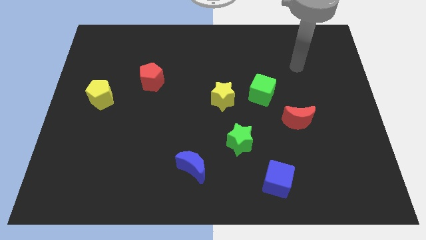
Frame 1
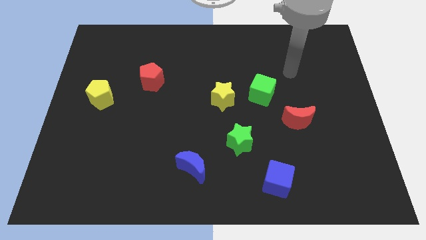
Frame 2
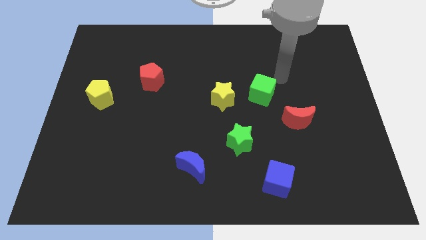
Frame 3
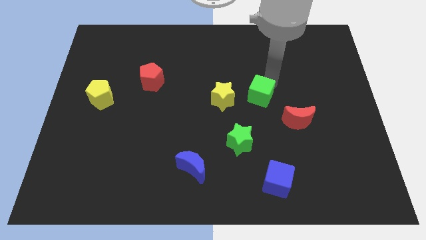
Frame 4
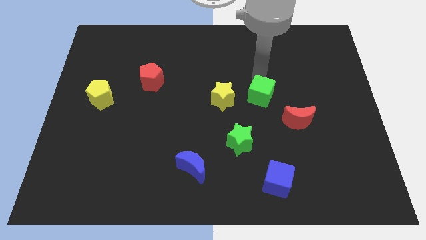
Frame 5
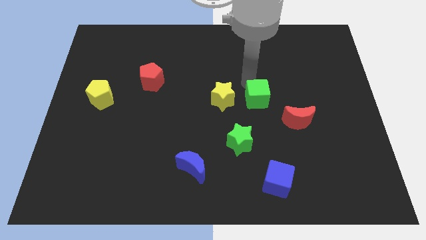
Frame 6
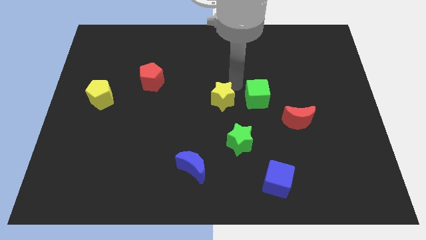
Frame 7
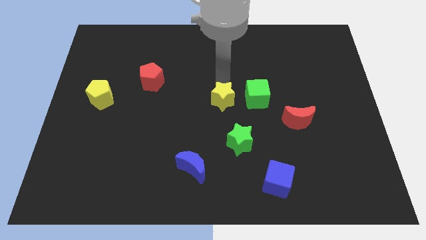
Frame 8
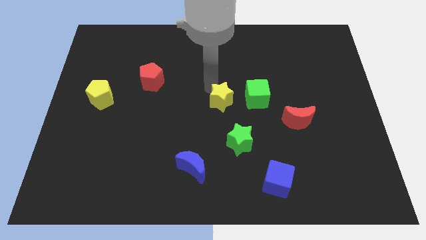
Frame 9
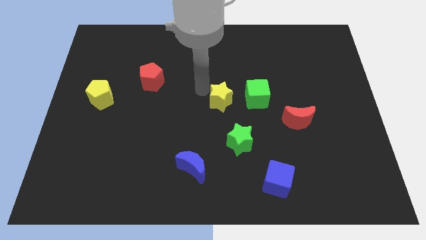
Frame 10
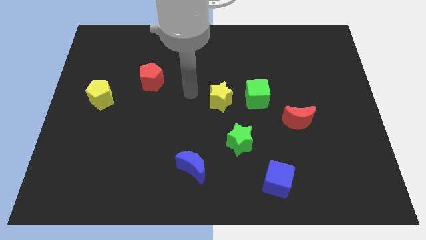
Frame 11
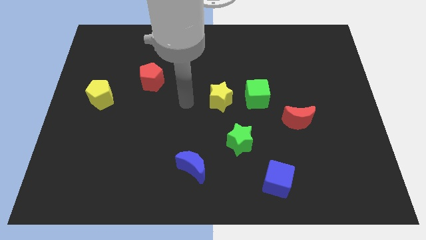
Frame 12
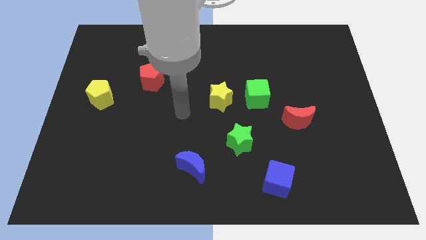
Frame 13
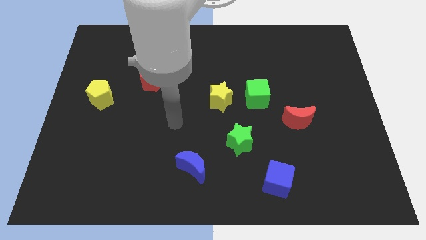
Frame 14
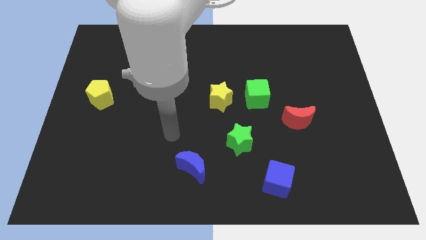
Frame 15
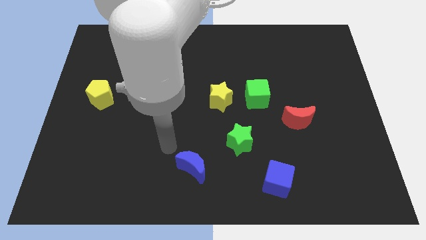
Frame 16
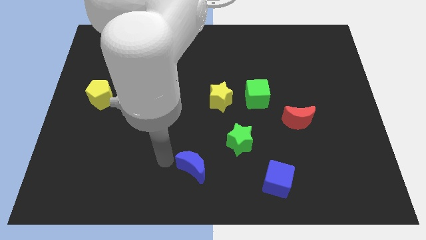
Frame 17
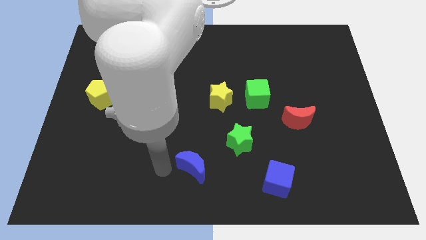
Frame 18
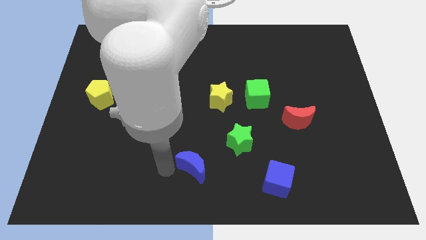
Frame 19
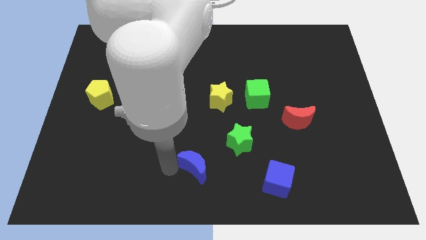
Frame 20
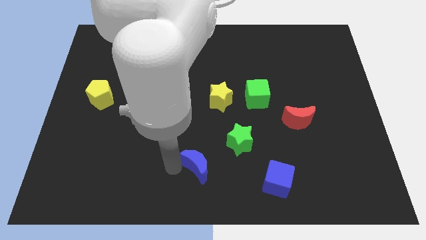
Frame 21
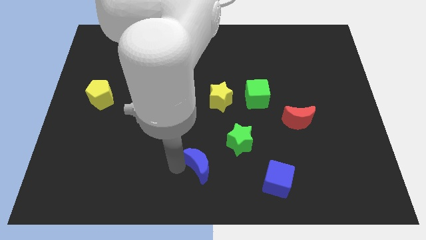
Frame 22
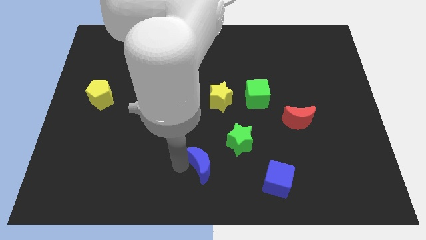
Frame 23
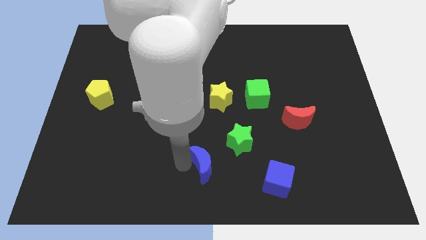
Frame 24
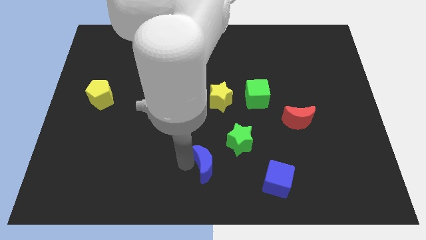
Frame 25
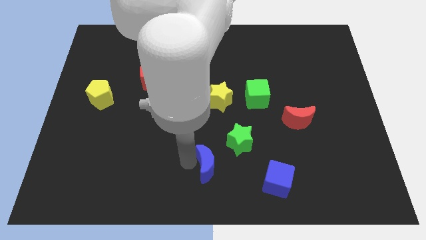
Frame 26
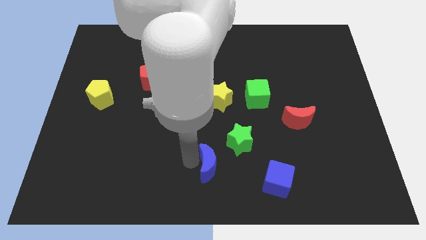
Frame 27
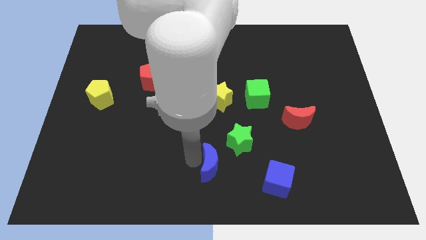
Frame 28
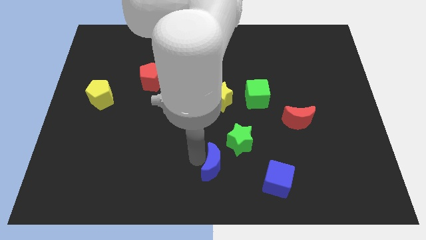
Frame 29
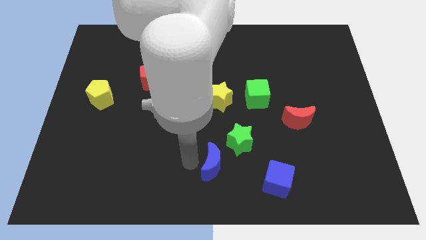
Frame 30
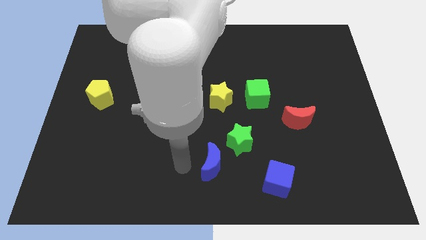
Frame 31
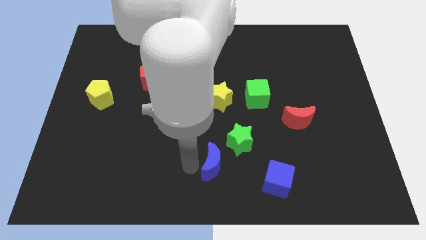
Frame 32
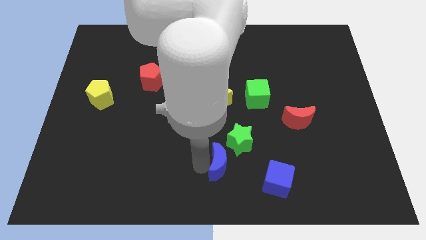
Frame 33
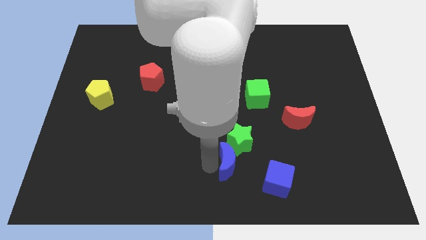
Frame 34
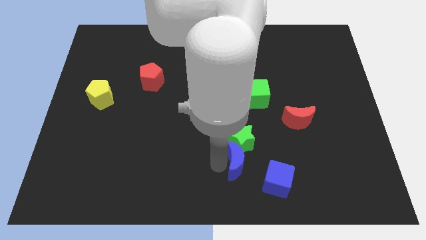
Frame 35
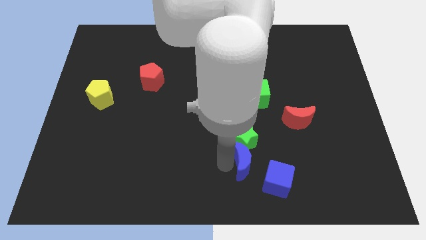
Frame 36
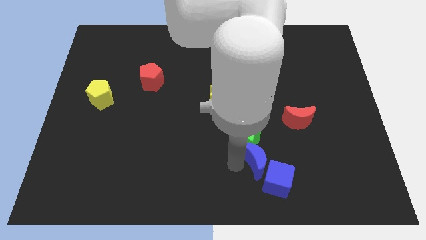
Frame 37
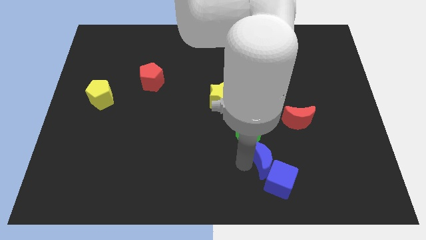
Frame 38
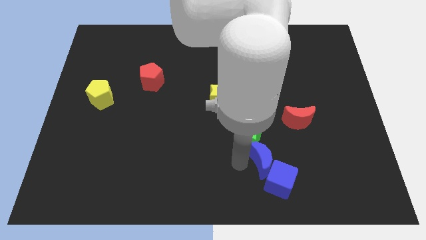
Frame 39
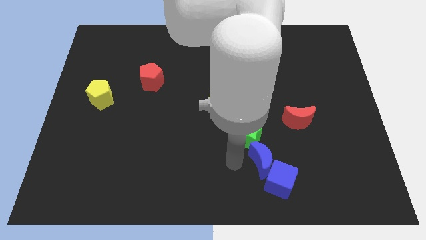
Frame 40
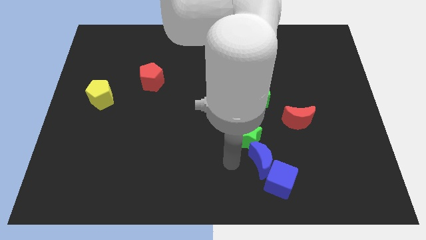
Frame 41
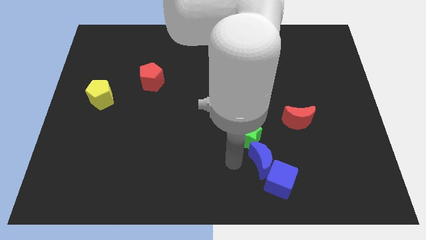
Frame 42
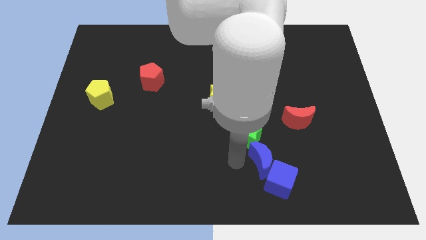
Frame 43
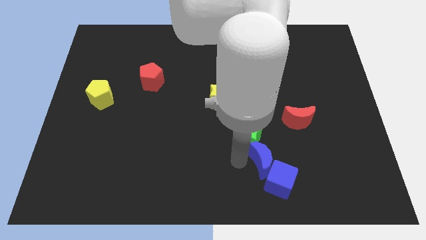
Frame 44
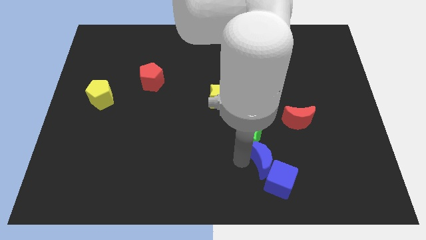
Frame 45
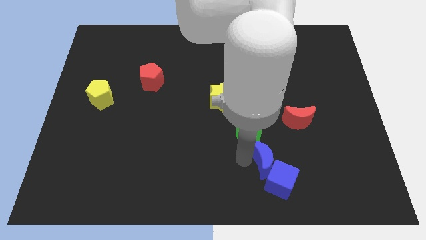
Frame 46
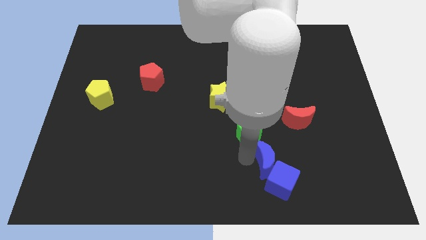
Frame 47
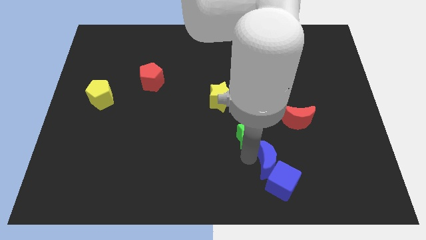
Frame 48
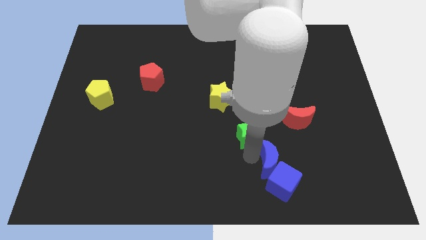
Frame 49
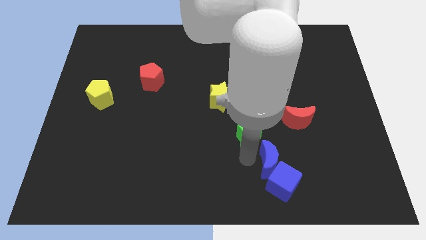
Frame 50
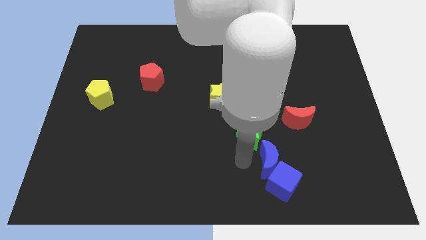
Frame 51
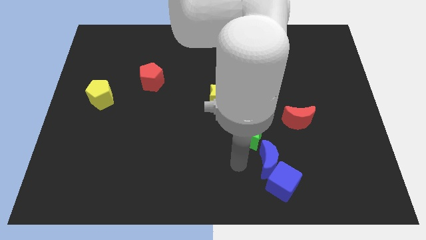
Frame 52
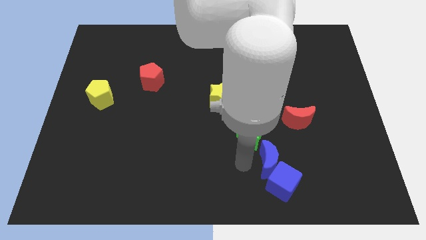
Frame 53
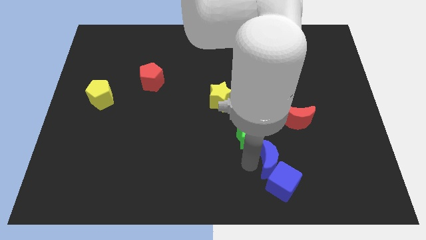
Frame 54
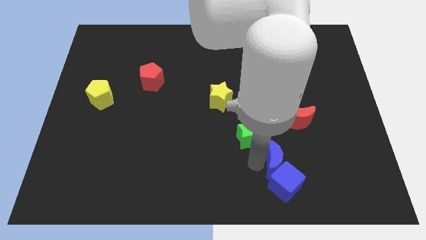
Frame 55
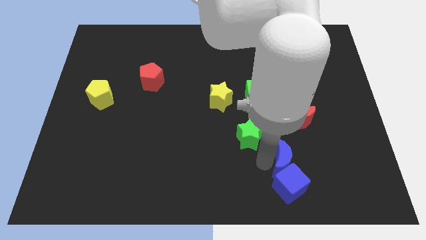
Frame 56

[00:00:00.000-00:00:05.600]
put the blue moon below the red moon

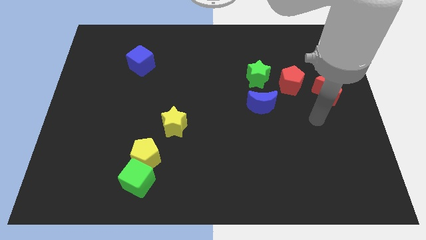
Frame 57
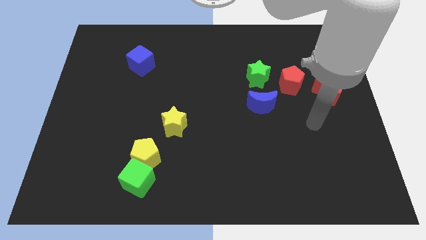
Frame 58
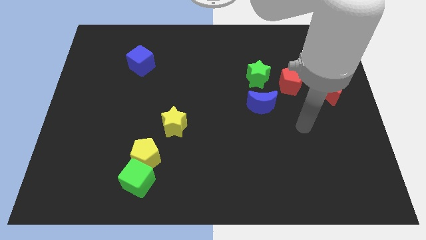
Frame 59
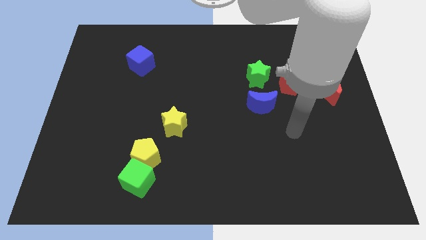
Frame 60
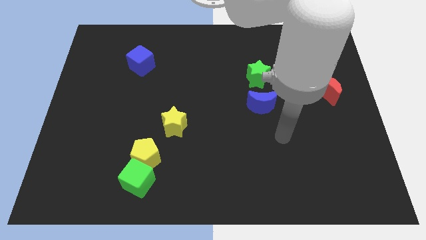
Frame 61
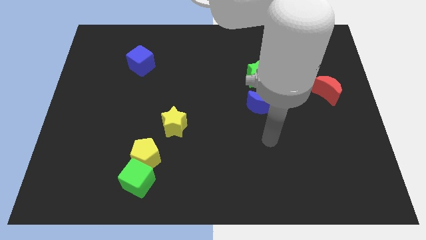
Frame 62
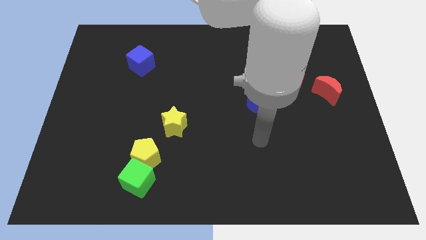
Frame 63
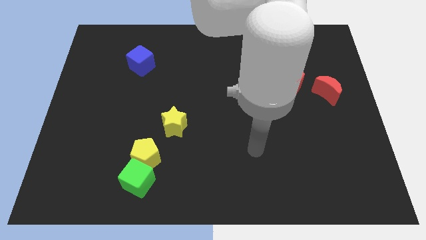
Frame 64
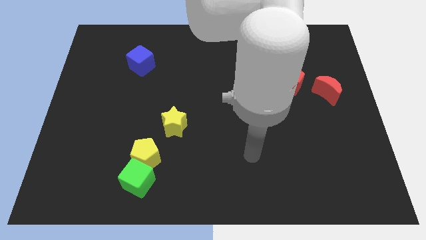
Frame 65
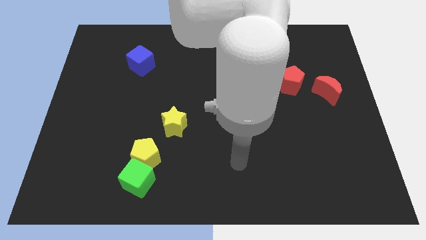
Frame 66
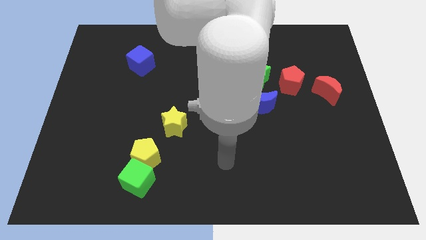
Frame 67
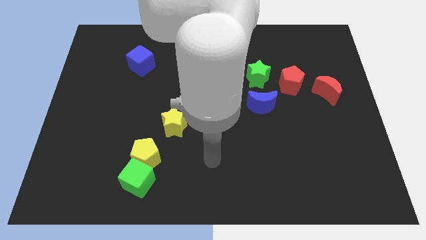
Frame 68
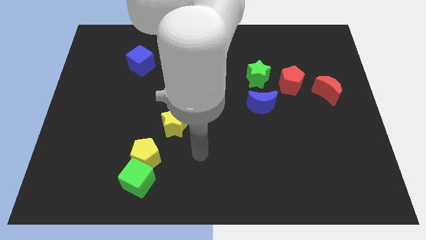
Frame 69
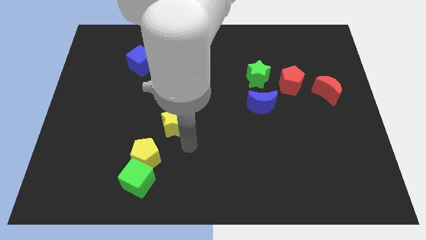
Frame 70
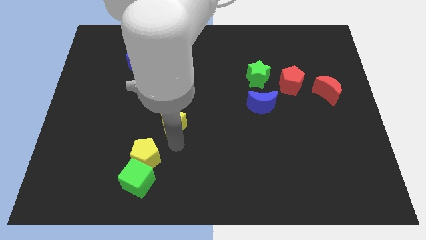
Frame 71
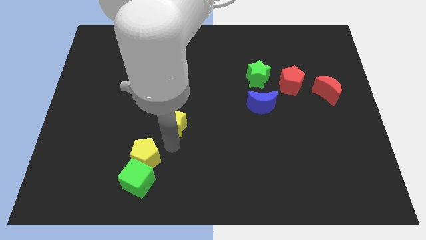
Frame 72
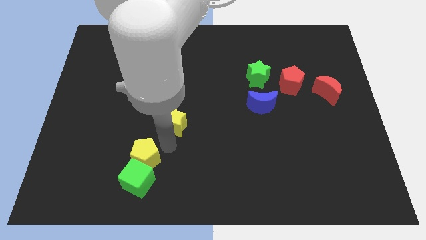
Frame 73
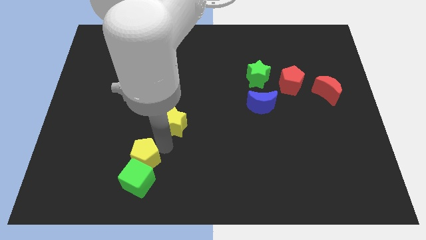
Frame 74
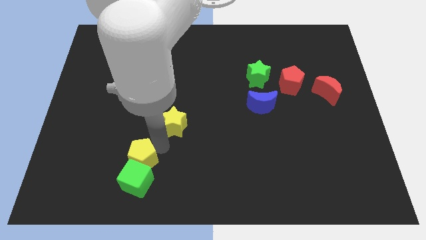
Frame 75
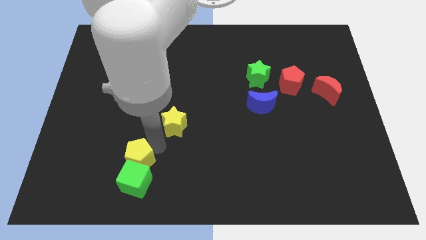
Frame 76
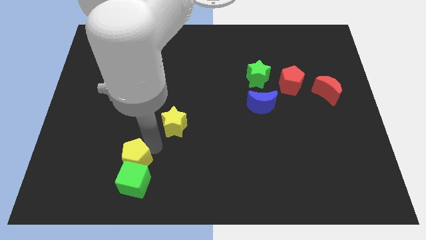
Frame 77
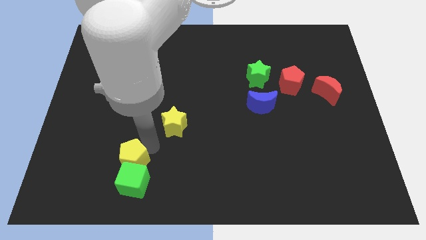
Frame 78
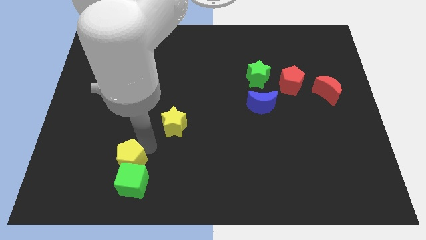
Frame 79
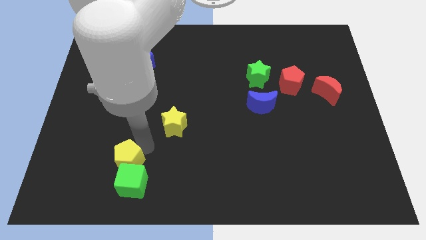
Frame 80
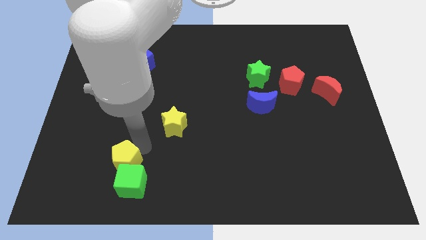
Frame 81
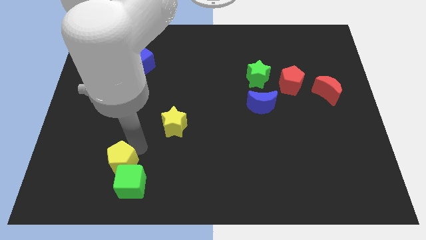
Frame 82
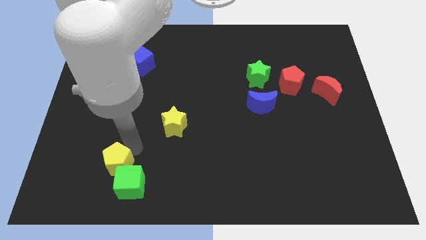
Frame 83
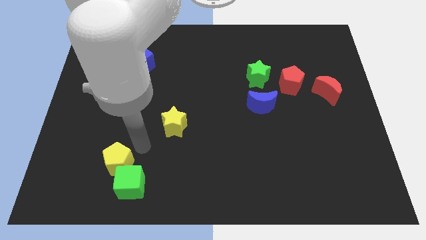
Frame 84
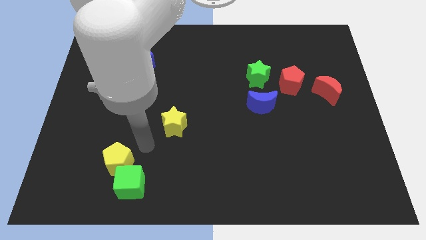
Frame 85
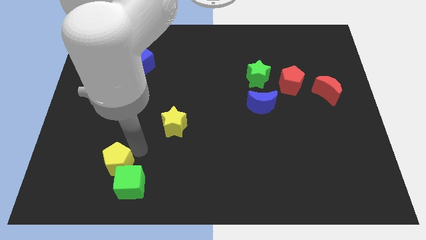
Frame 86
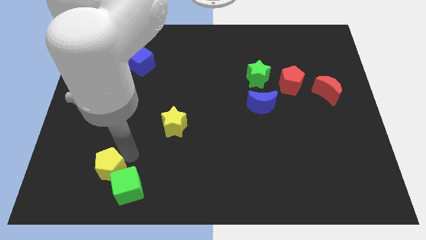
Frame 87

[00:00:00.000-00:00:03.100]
put the yellow pentagon to the left side of the green cube
